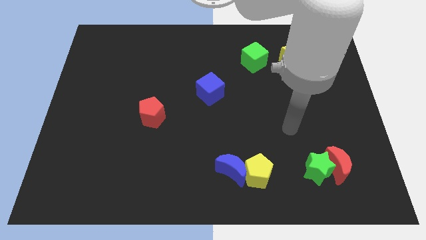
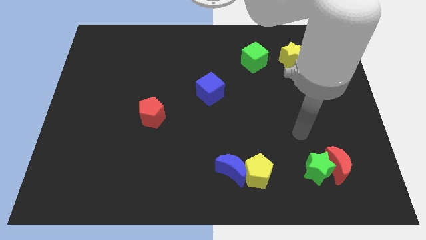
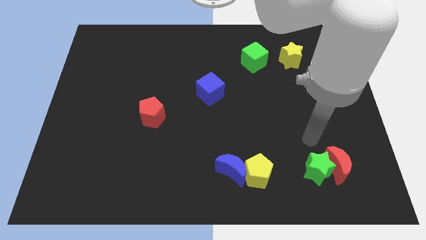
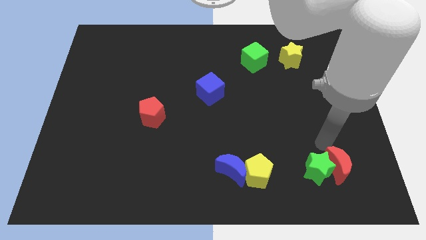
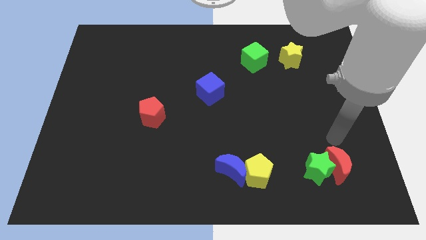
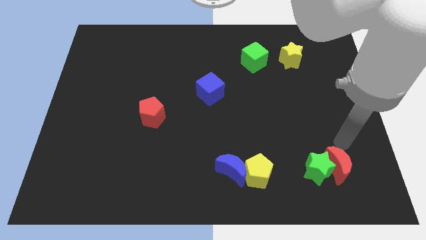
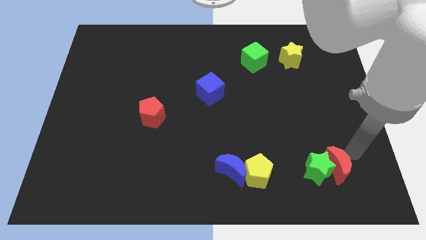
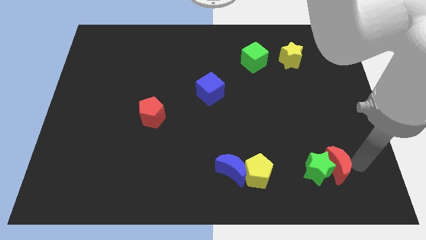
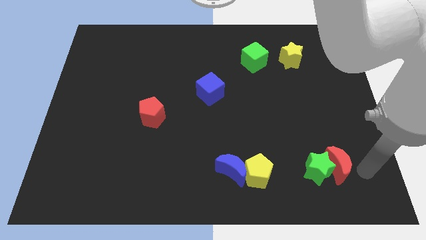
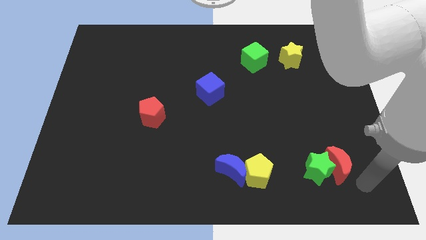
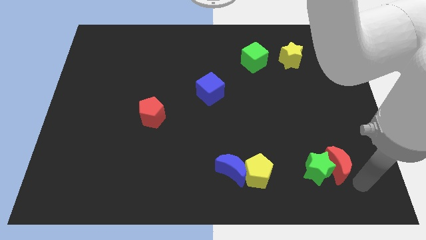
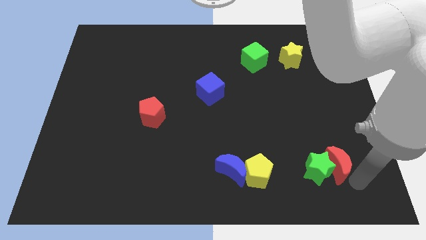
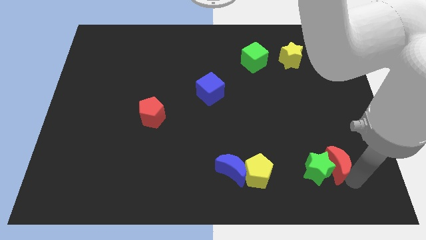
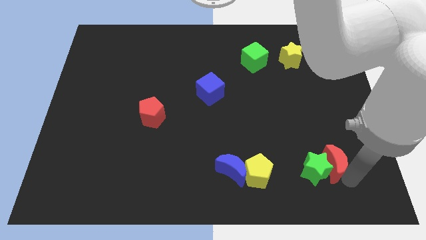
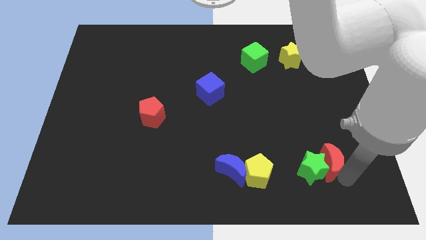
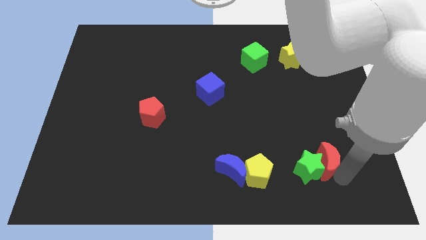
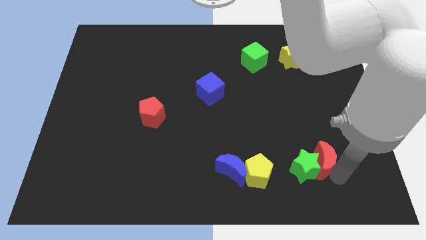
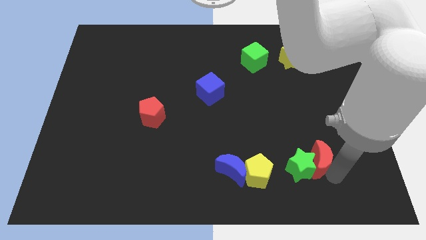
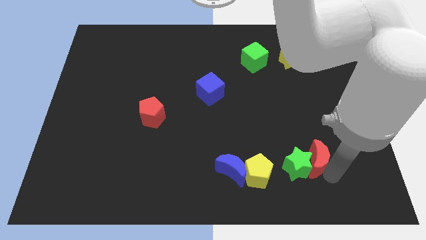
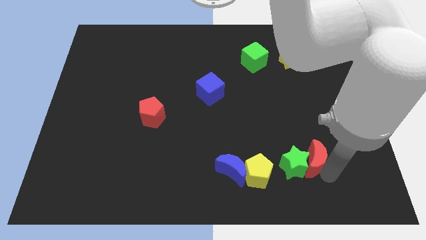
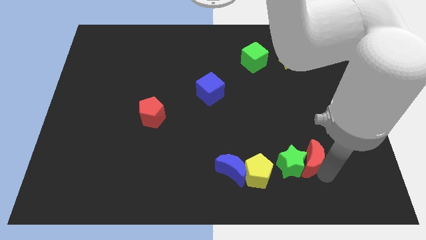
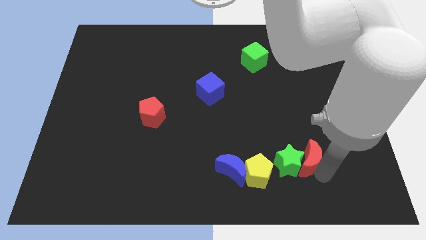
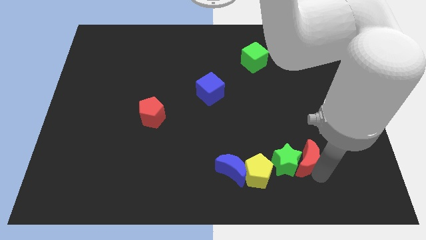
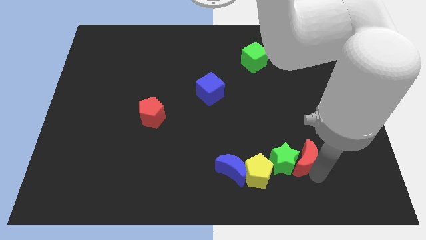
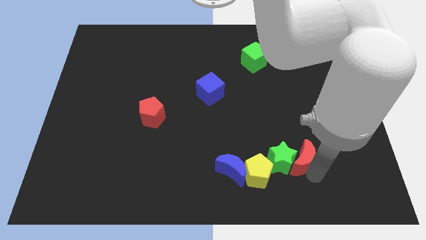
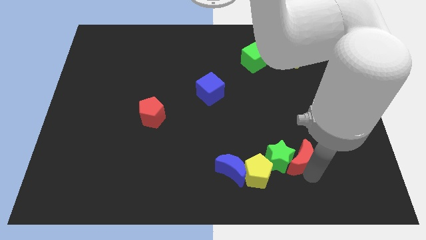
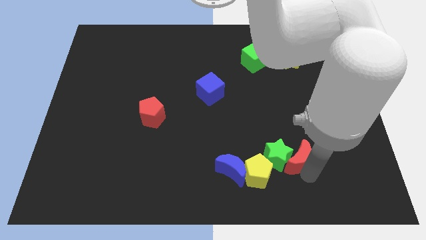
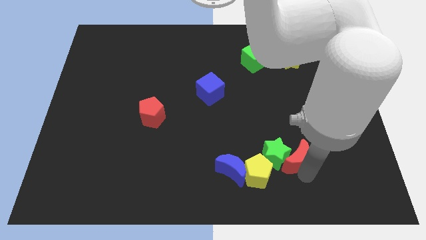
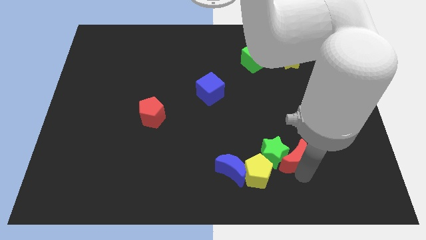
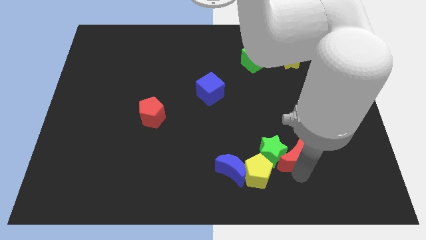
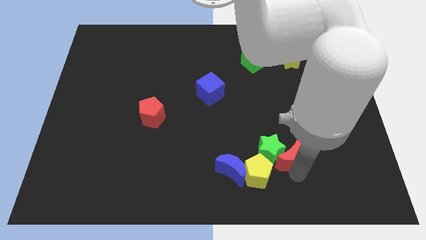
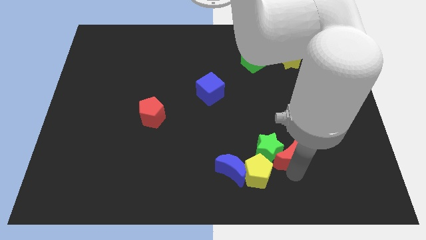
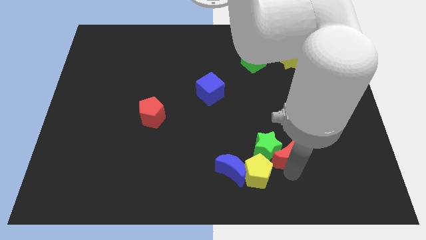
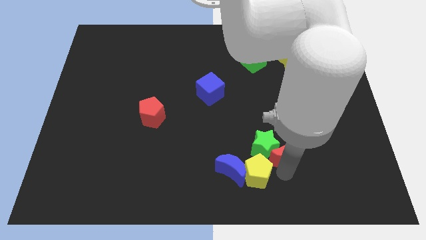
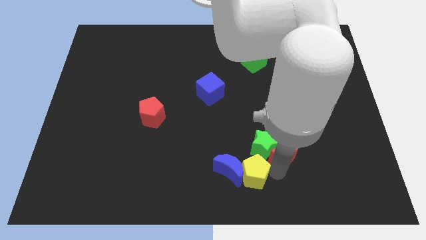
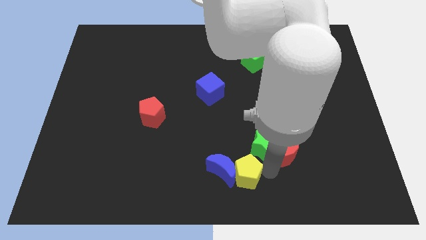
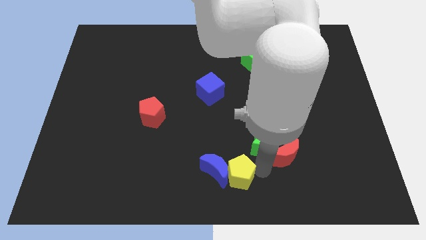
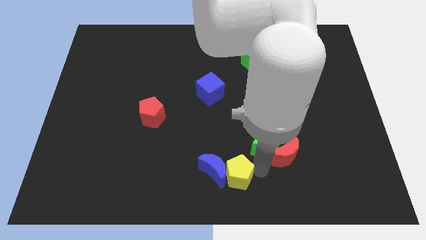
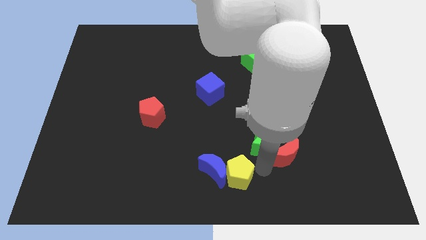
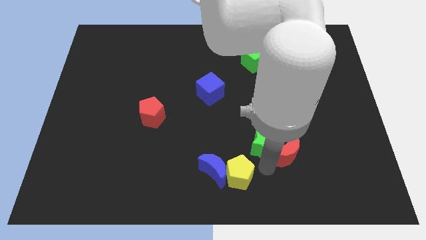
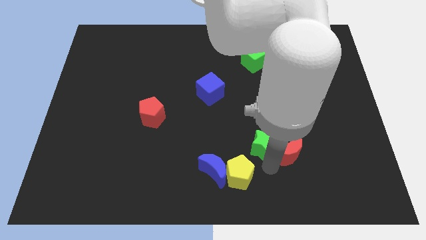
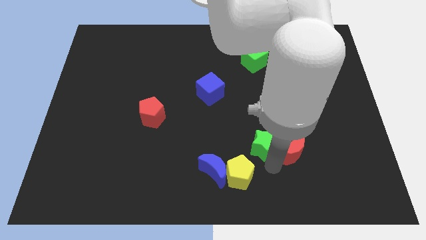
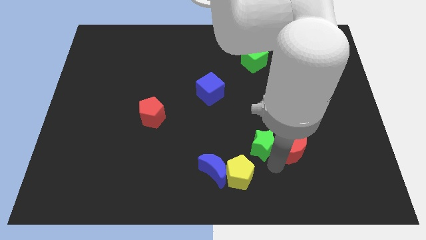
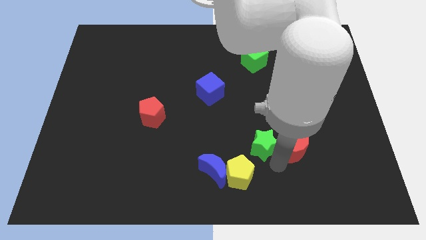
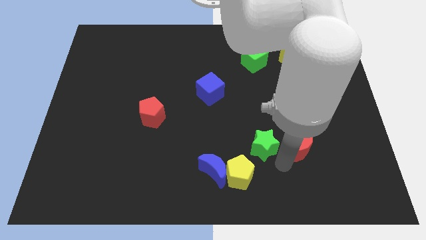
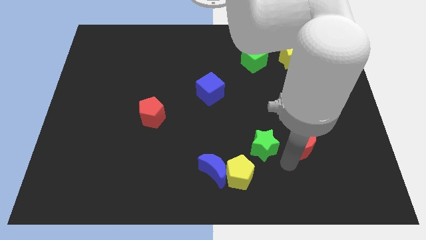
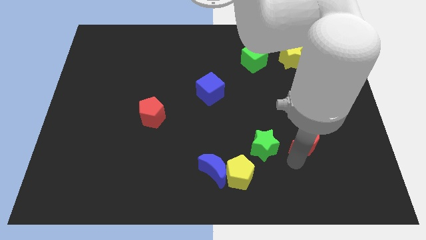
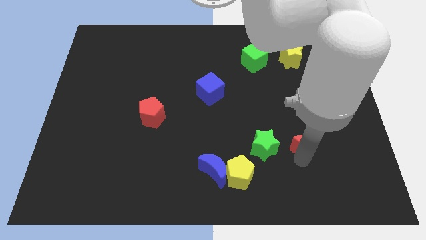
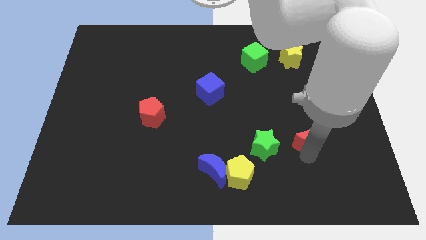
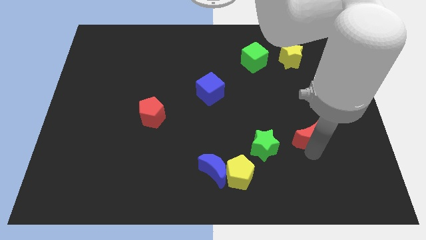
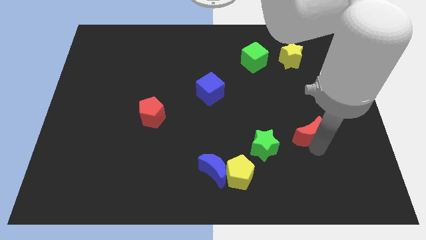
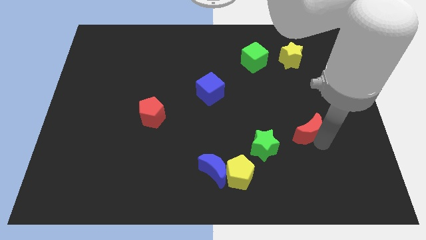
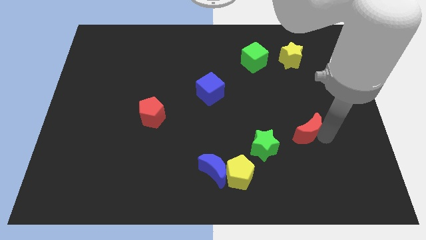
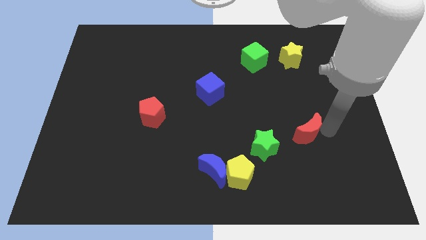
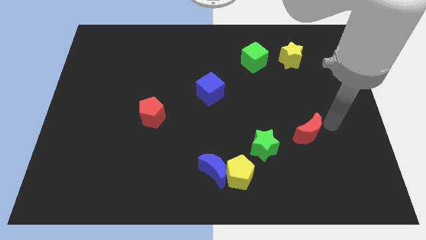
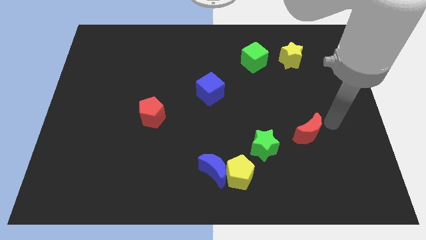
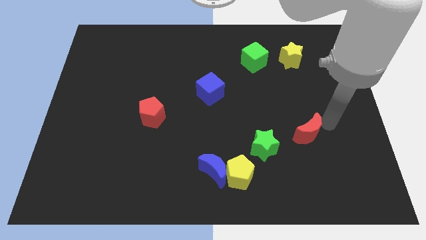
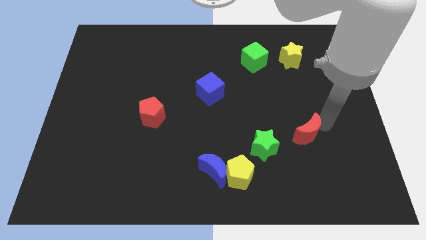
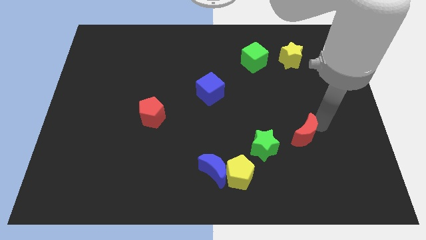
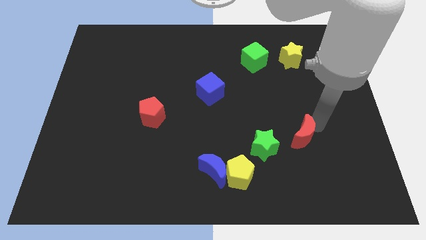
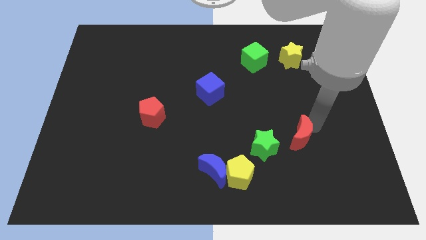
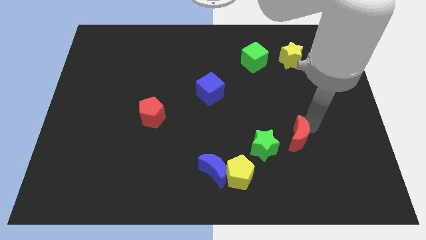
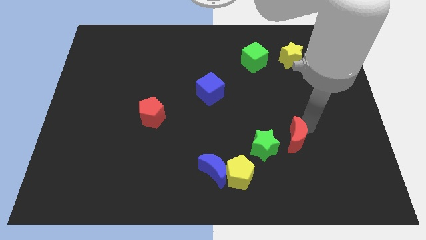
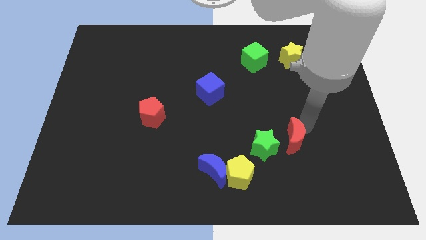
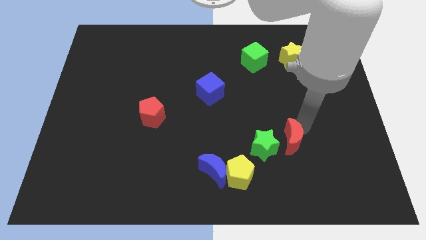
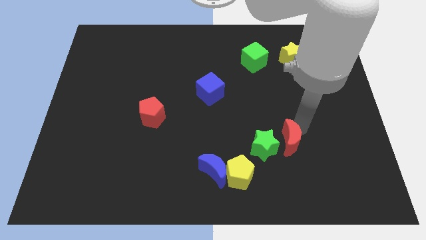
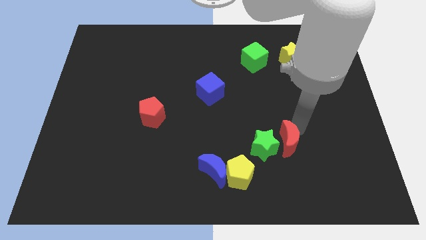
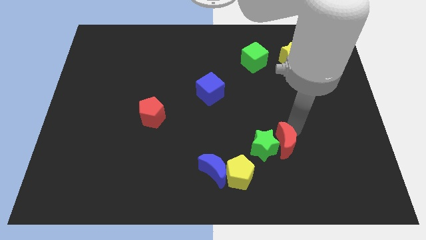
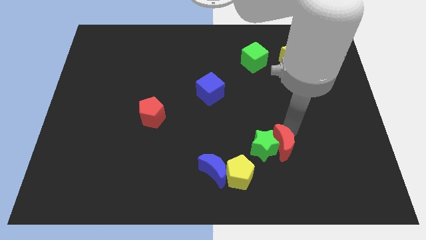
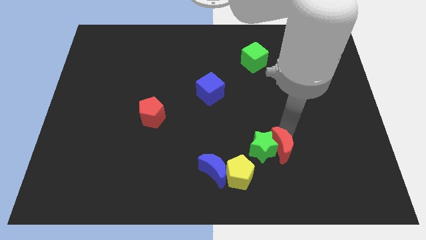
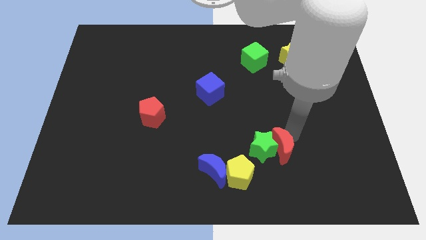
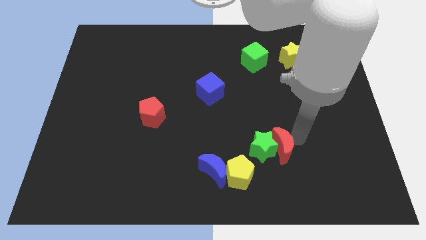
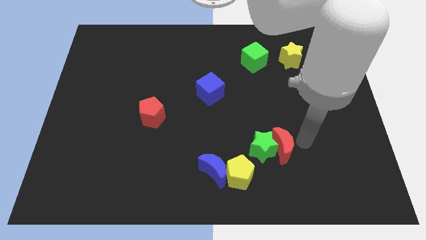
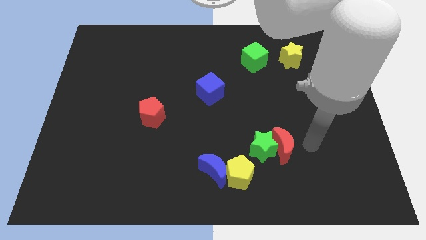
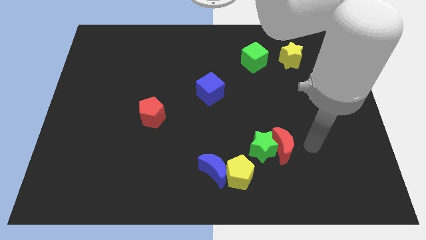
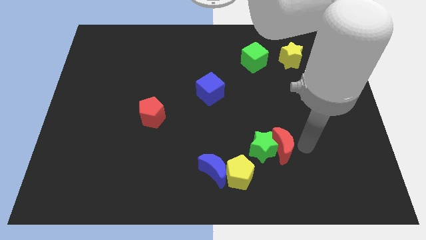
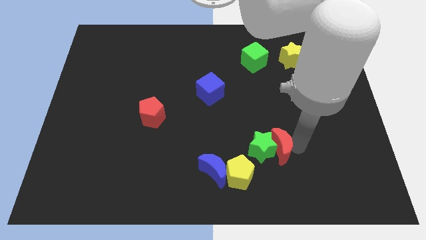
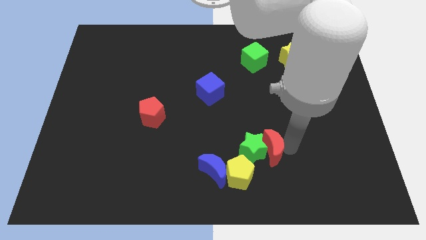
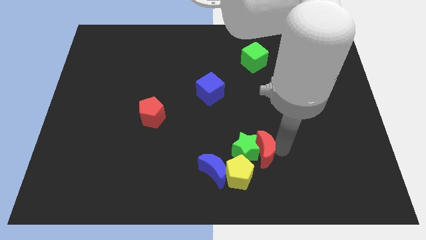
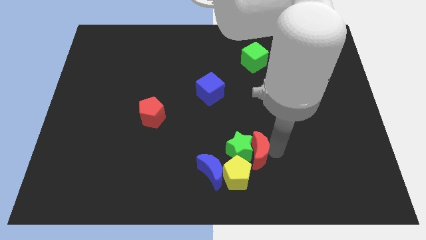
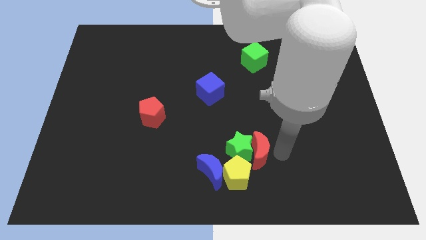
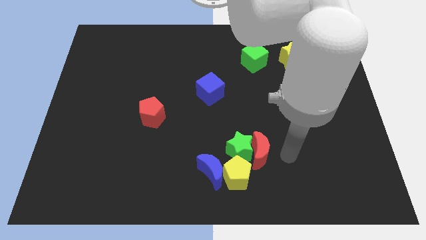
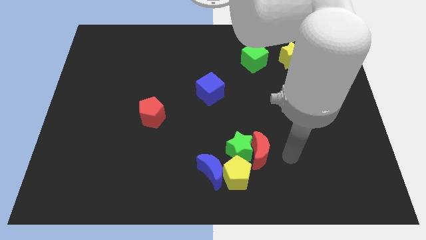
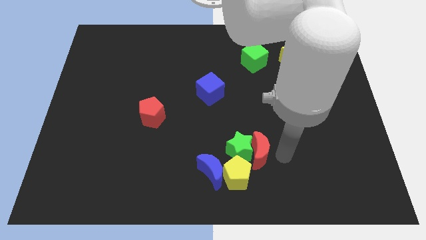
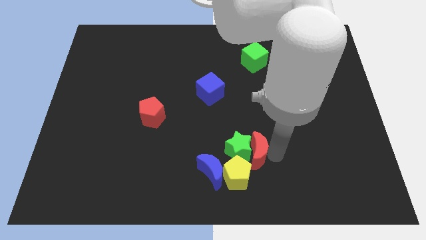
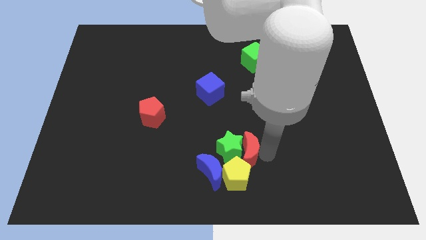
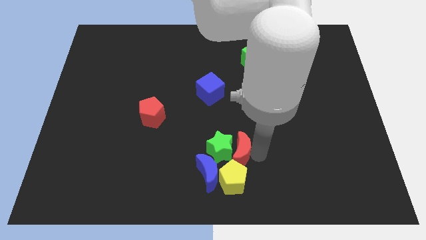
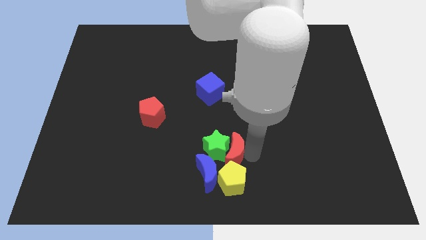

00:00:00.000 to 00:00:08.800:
move the red moon left
